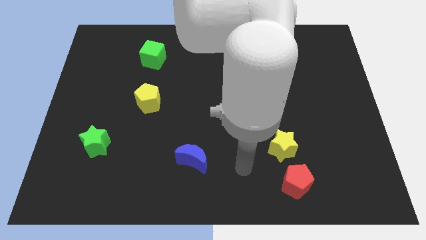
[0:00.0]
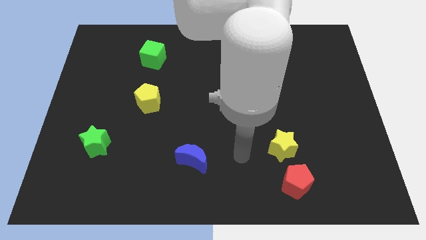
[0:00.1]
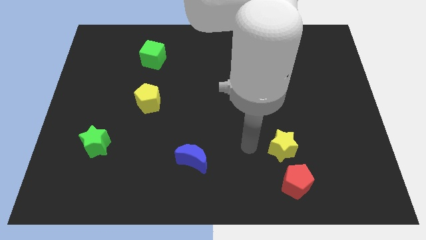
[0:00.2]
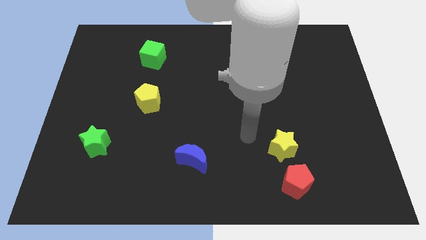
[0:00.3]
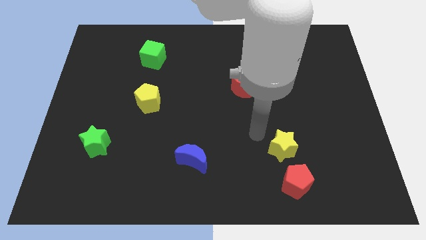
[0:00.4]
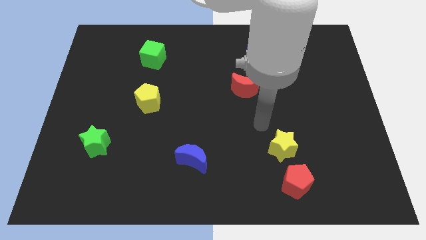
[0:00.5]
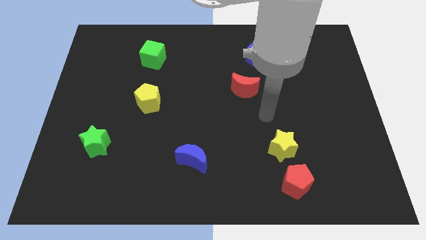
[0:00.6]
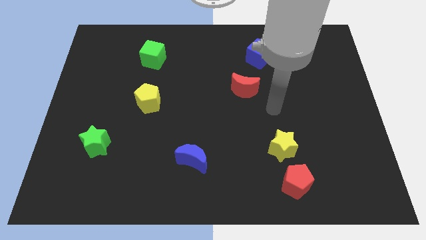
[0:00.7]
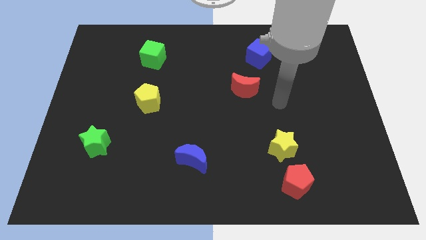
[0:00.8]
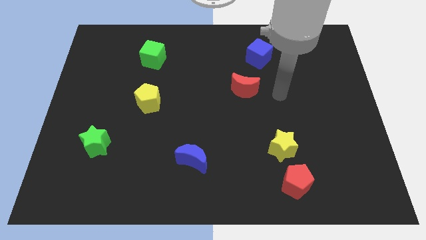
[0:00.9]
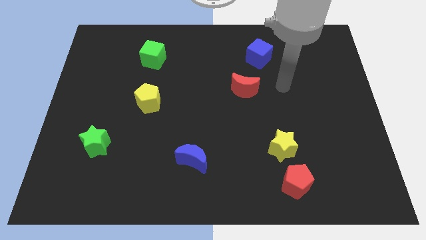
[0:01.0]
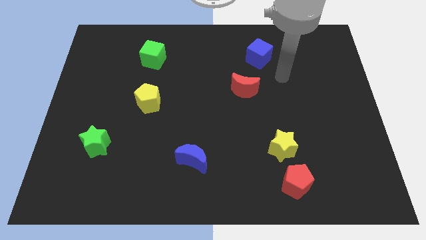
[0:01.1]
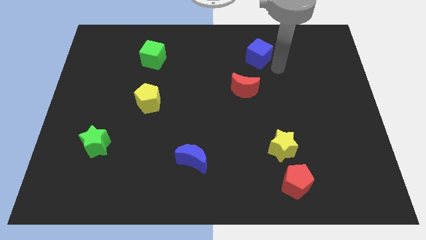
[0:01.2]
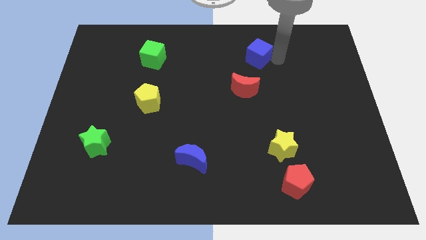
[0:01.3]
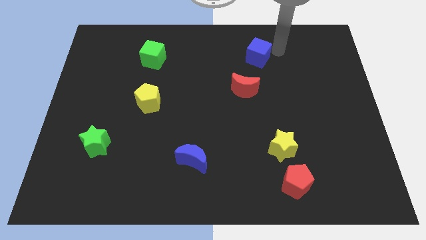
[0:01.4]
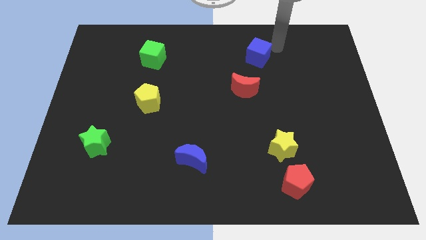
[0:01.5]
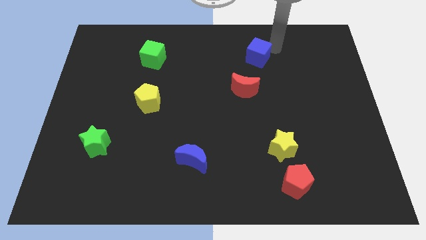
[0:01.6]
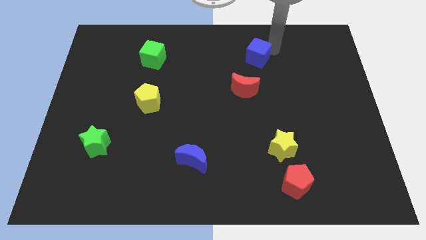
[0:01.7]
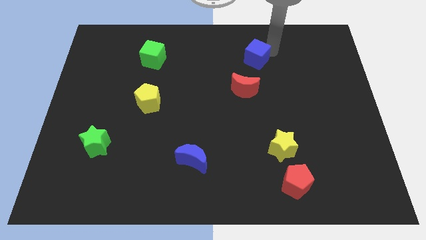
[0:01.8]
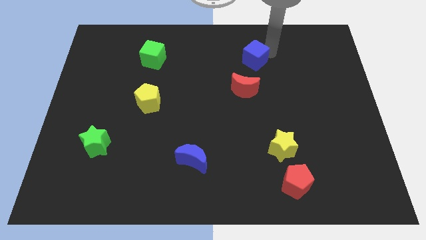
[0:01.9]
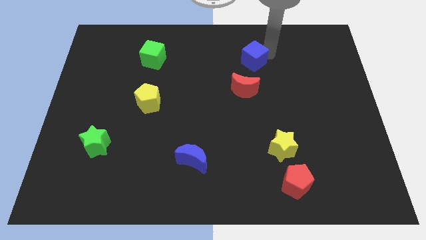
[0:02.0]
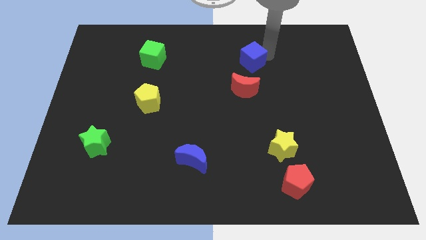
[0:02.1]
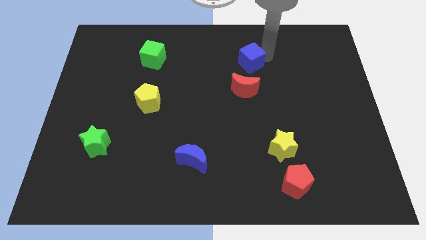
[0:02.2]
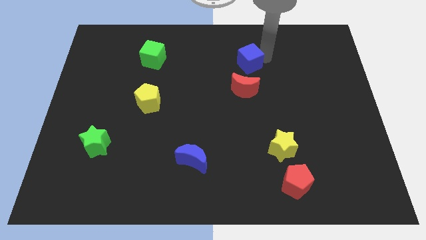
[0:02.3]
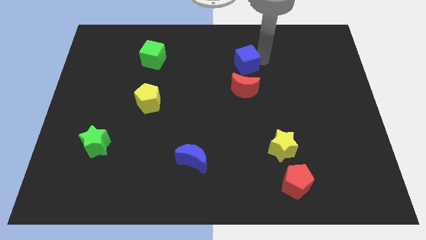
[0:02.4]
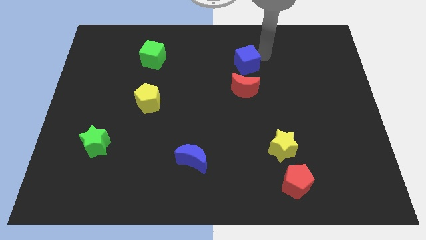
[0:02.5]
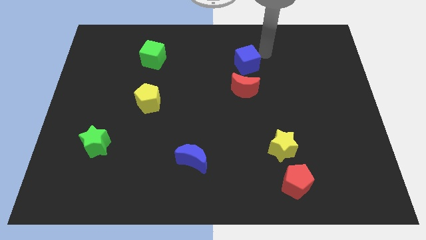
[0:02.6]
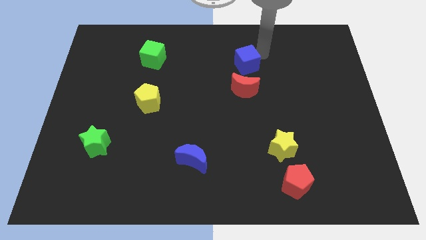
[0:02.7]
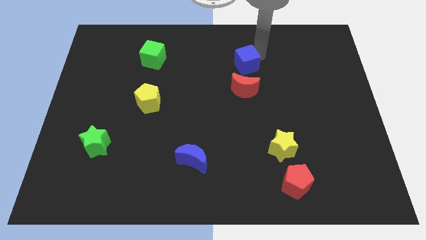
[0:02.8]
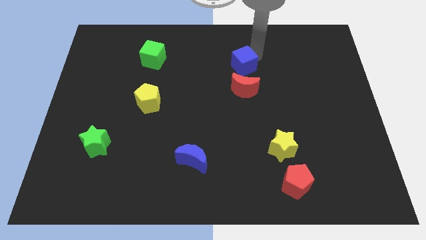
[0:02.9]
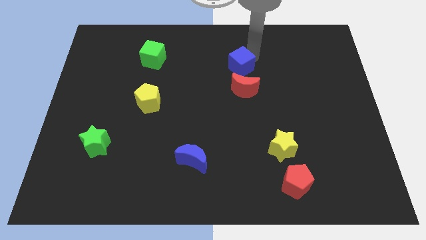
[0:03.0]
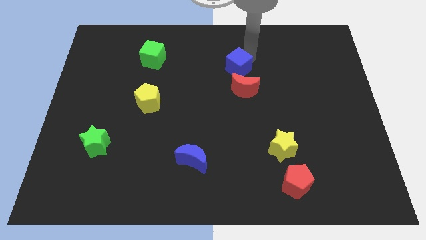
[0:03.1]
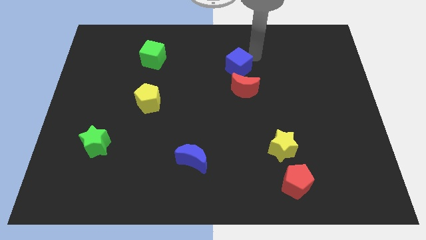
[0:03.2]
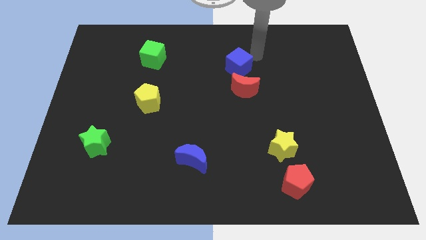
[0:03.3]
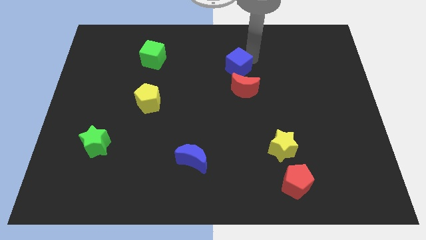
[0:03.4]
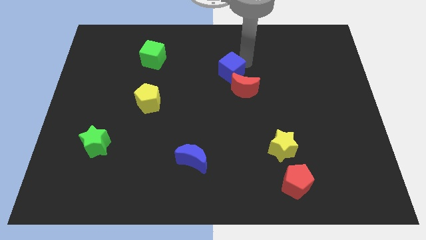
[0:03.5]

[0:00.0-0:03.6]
slightly move the blue cube downwards and then to the left

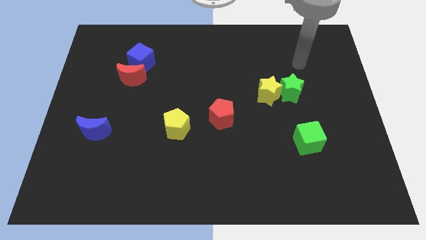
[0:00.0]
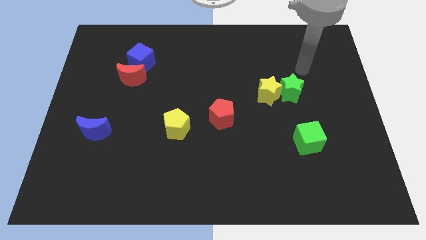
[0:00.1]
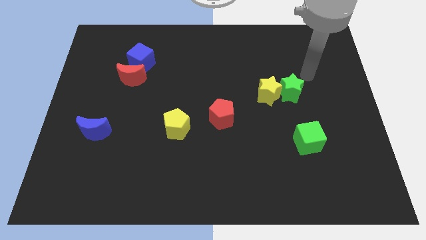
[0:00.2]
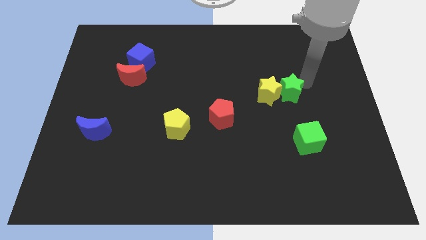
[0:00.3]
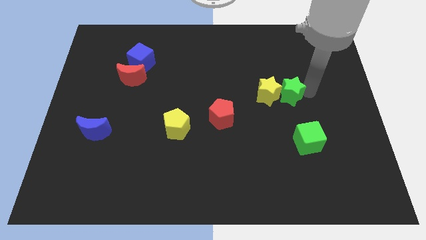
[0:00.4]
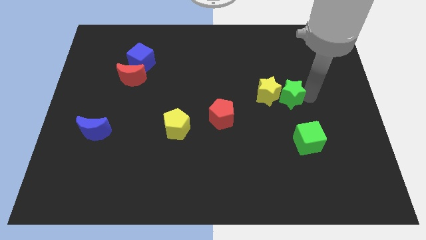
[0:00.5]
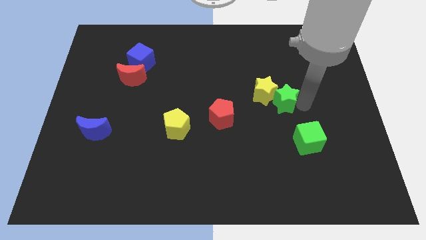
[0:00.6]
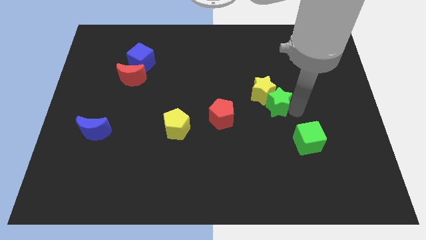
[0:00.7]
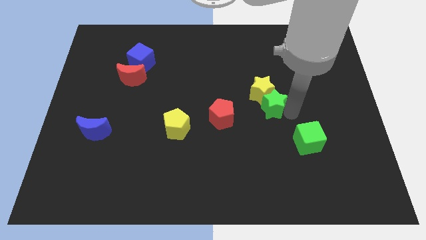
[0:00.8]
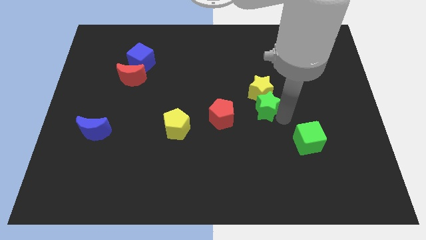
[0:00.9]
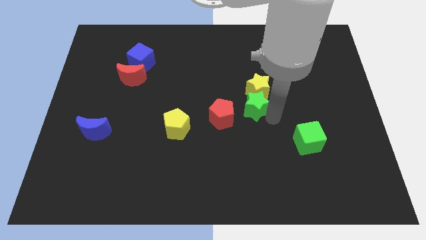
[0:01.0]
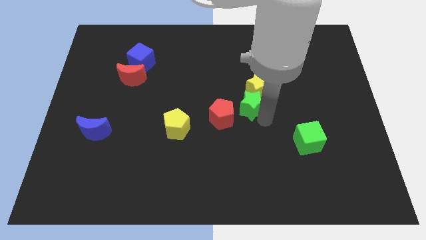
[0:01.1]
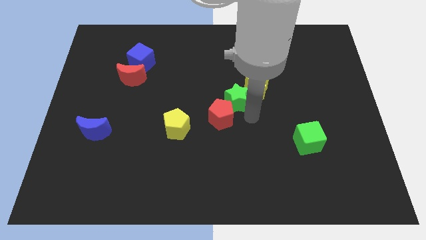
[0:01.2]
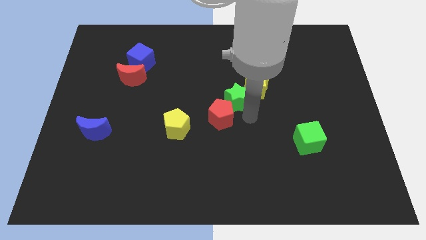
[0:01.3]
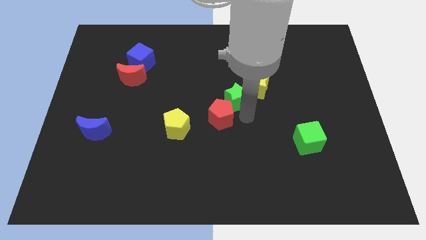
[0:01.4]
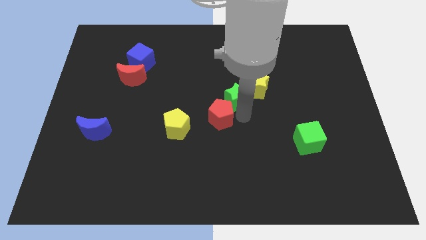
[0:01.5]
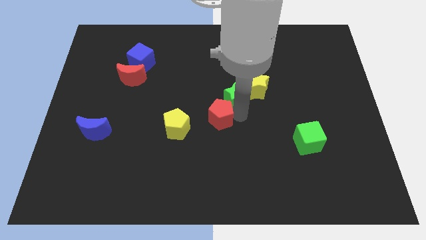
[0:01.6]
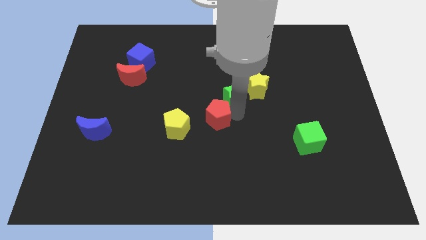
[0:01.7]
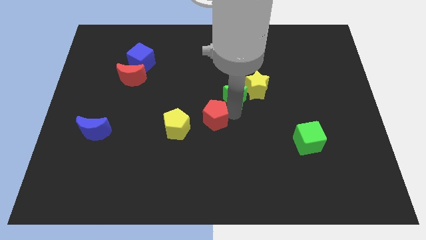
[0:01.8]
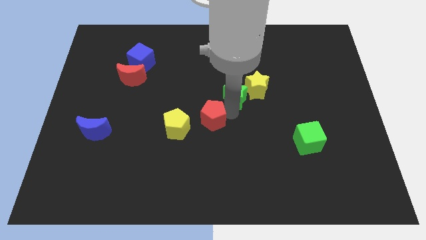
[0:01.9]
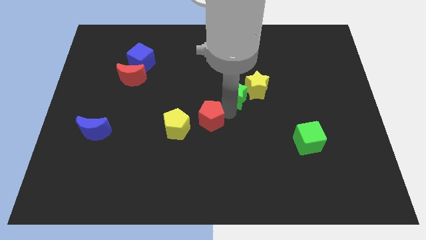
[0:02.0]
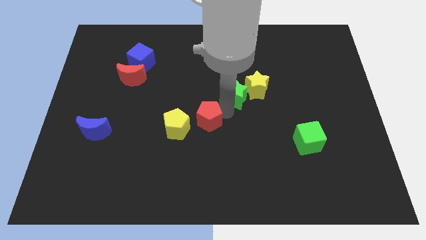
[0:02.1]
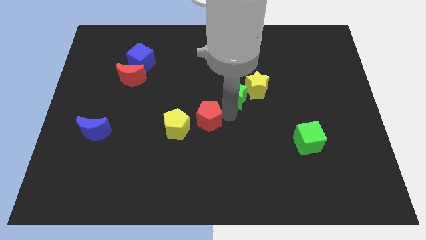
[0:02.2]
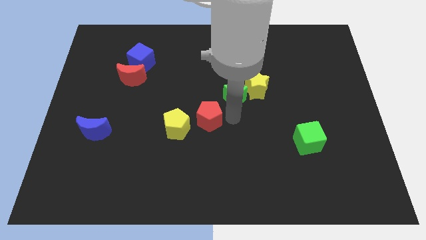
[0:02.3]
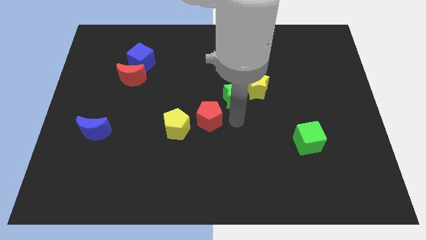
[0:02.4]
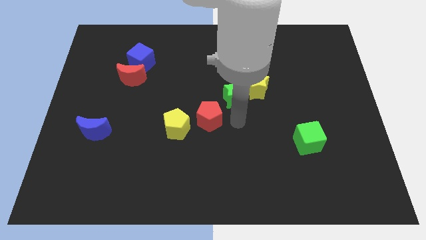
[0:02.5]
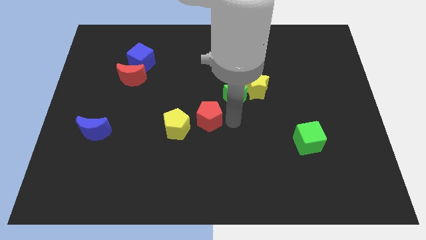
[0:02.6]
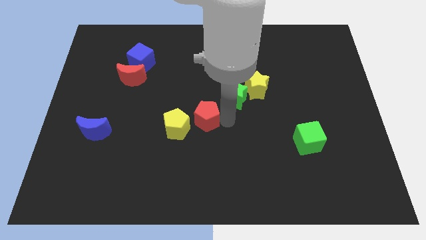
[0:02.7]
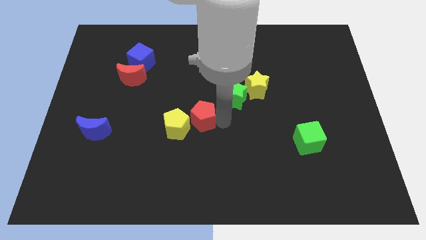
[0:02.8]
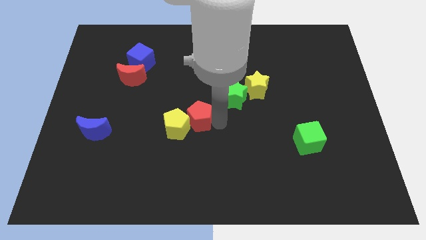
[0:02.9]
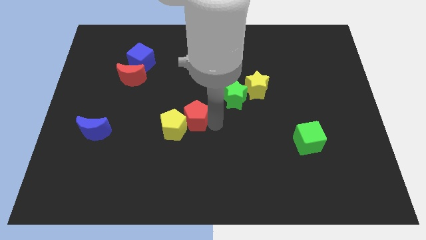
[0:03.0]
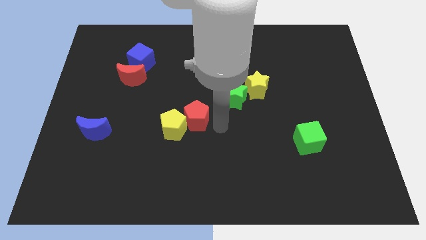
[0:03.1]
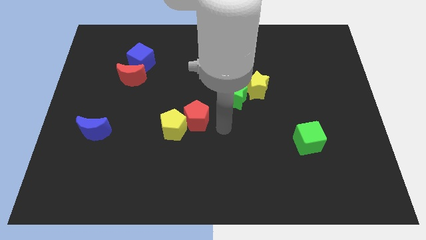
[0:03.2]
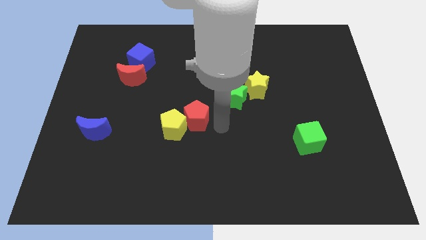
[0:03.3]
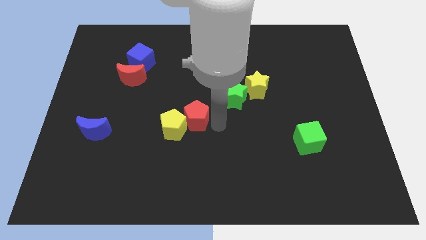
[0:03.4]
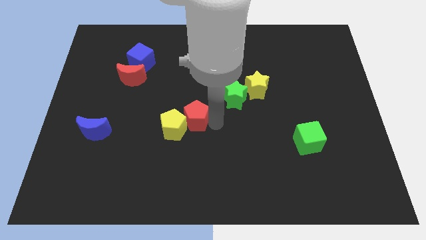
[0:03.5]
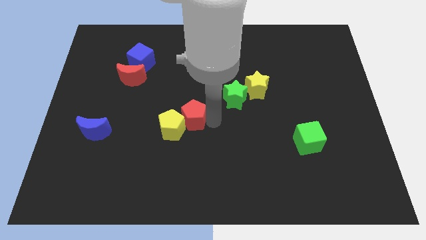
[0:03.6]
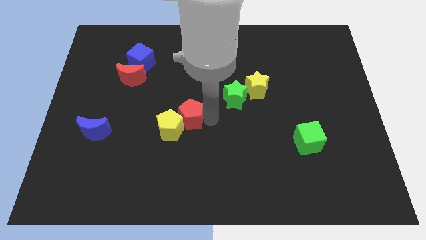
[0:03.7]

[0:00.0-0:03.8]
push the red pentagon left somewhat

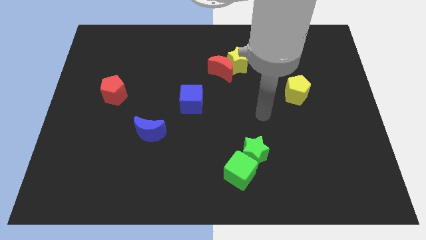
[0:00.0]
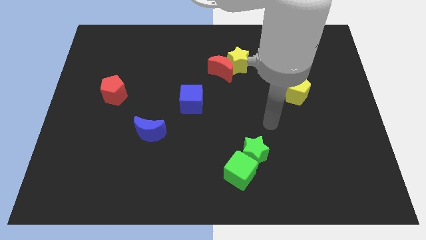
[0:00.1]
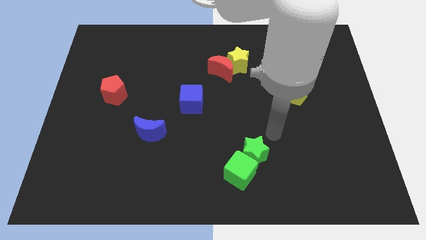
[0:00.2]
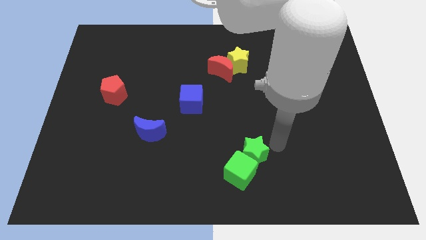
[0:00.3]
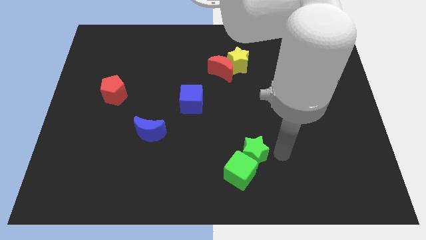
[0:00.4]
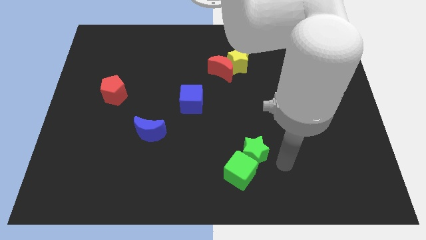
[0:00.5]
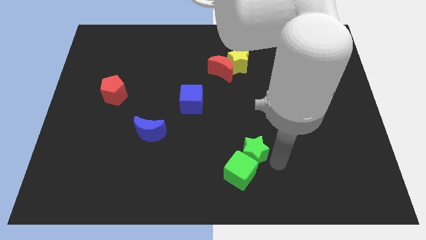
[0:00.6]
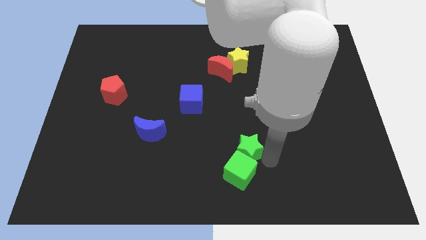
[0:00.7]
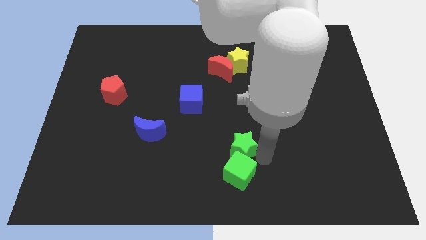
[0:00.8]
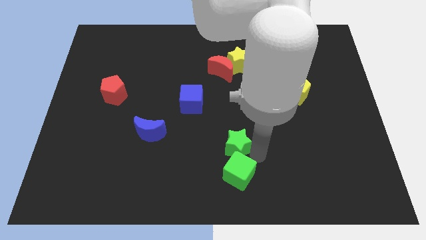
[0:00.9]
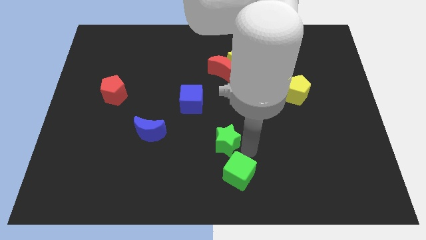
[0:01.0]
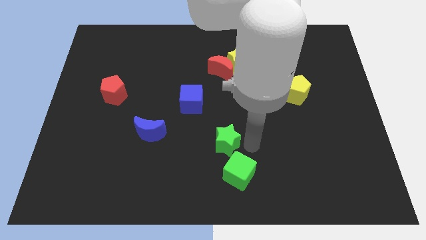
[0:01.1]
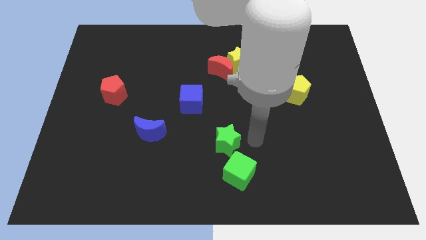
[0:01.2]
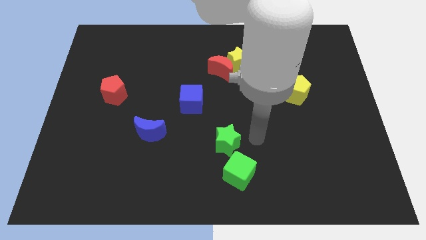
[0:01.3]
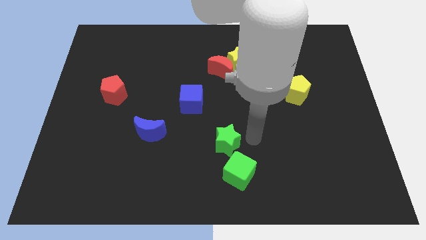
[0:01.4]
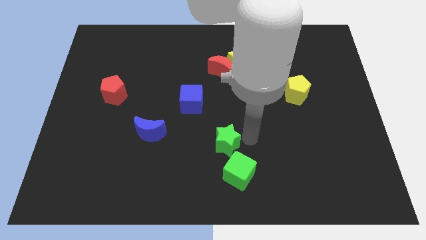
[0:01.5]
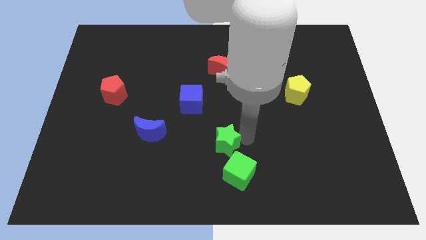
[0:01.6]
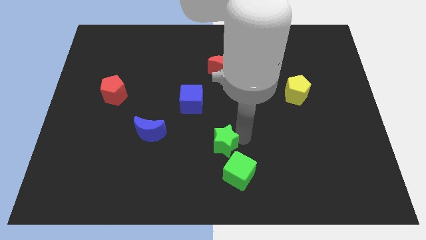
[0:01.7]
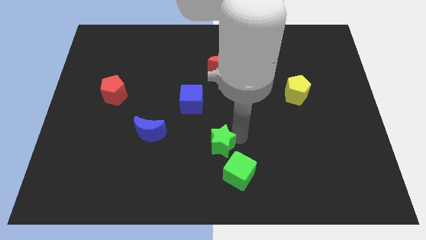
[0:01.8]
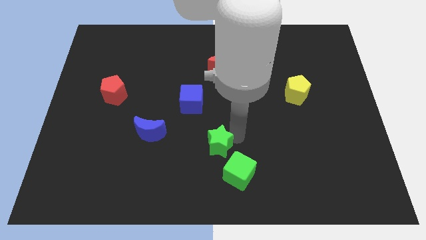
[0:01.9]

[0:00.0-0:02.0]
slide the green star somewhat to the left
